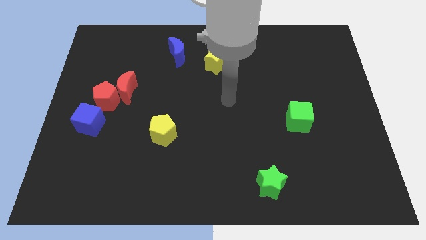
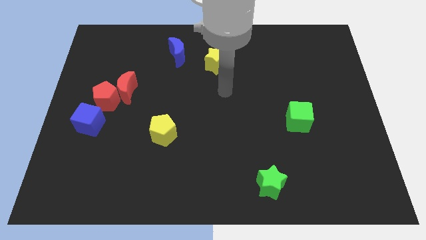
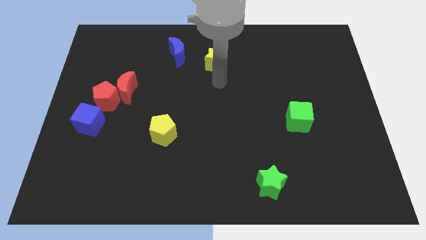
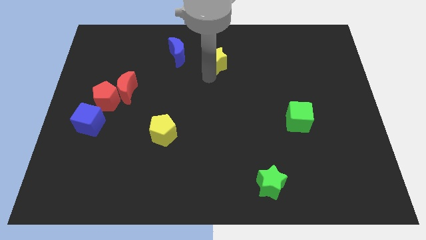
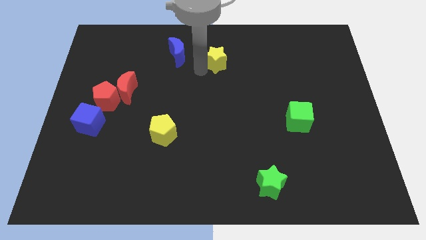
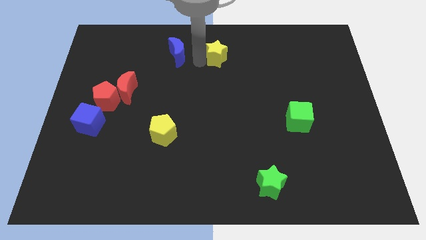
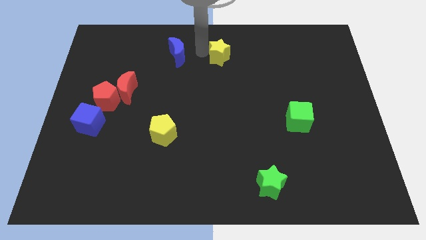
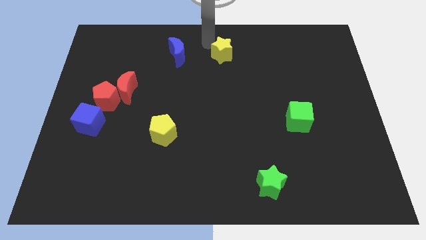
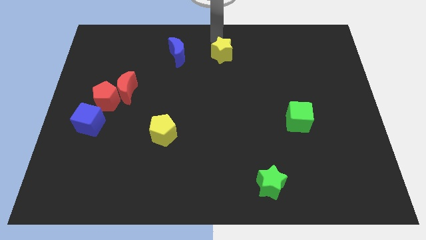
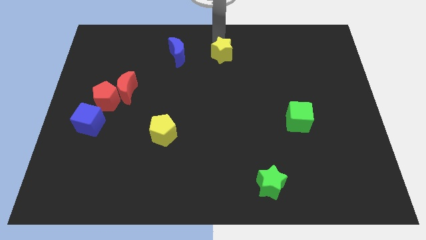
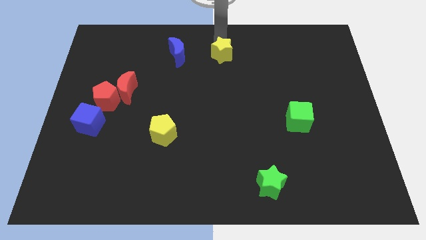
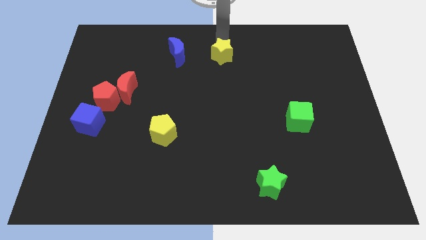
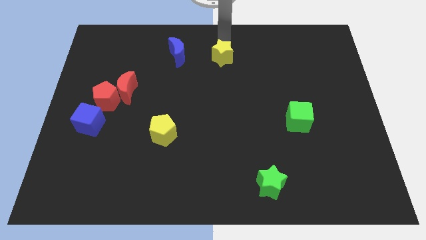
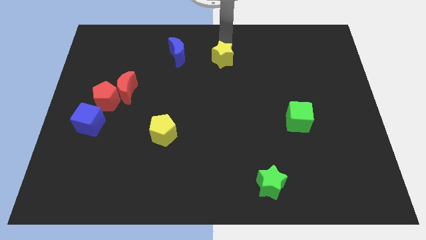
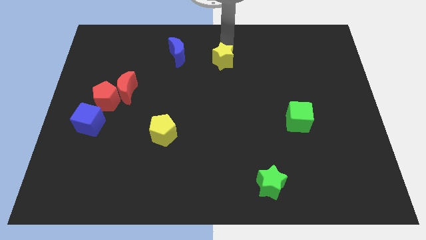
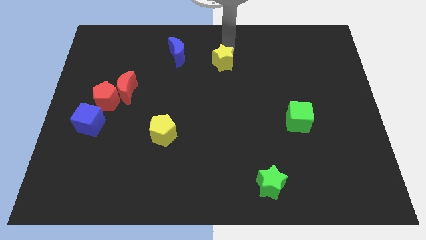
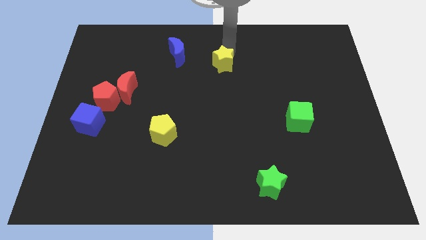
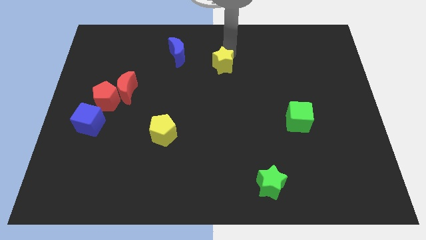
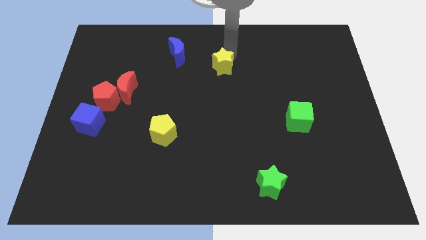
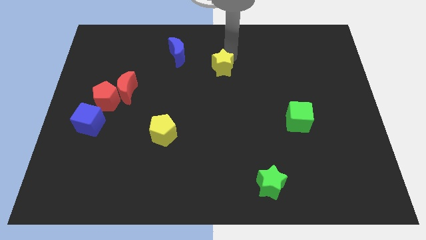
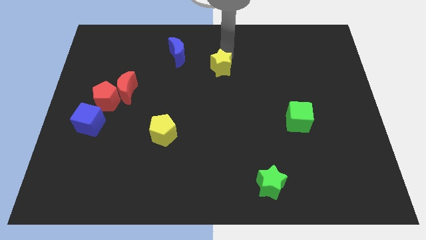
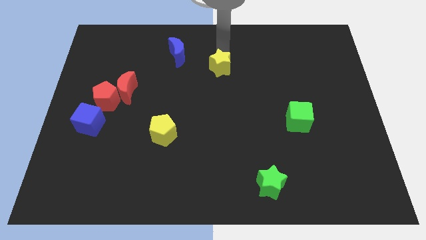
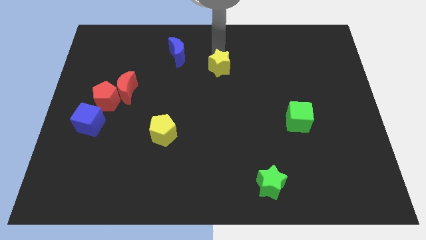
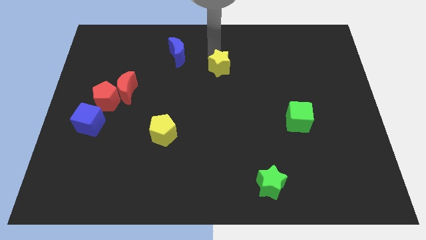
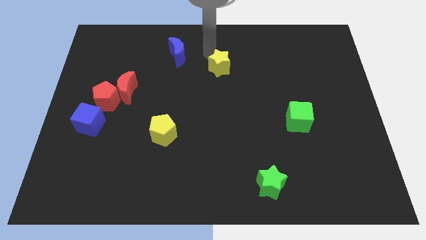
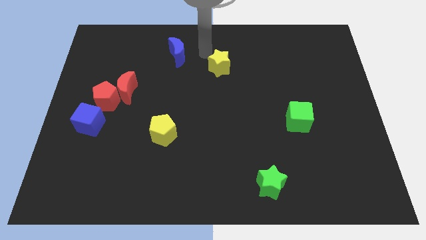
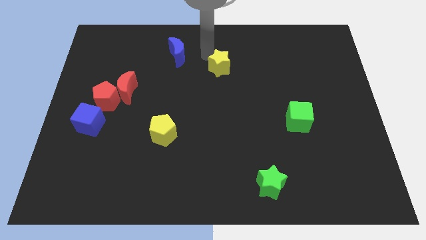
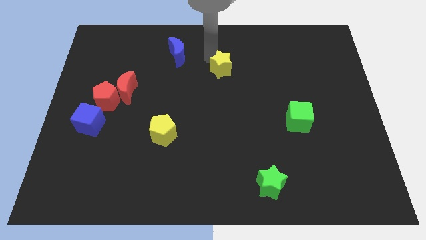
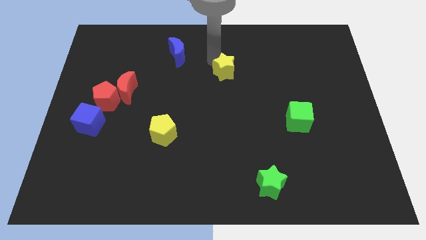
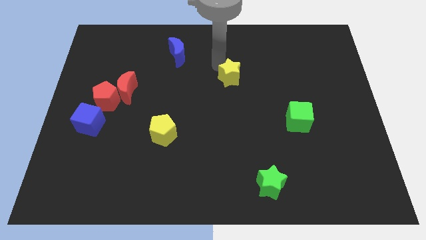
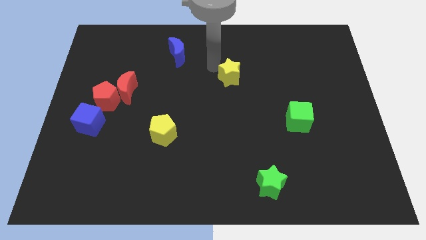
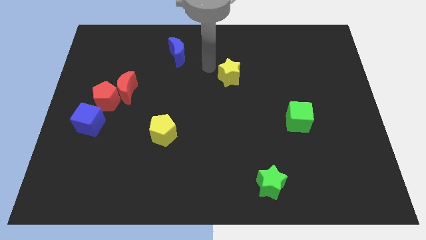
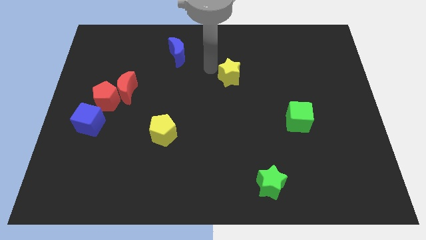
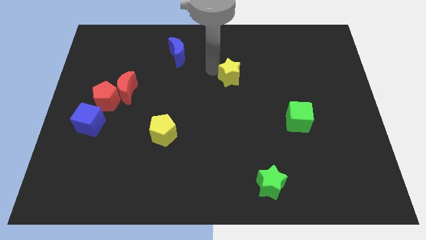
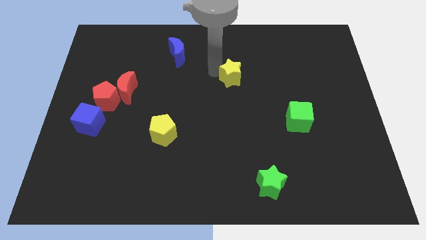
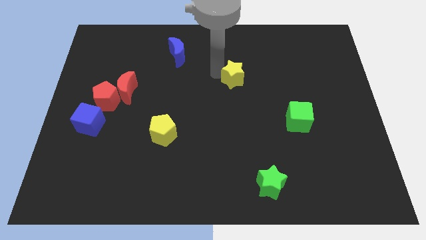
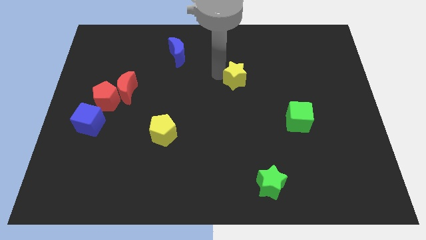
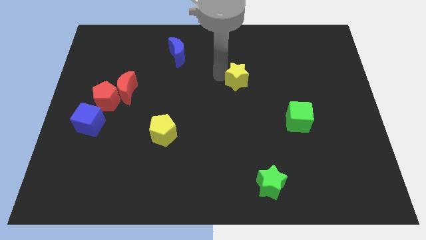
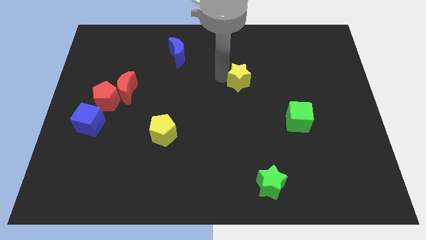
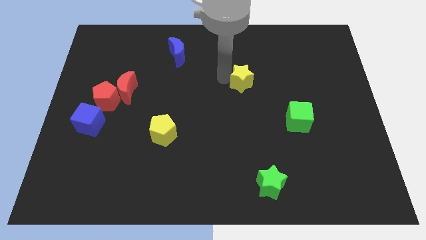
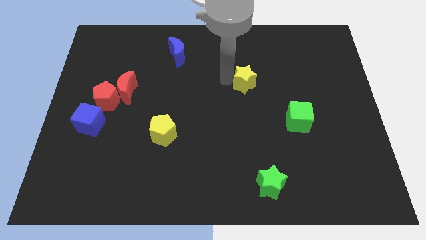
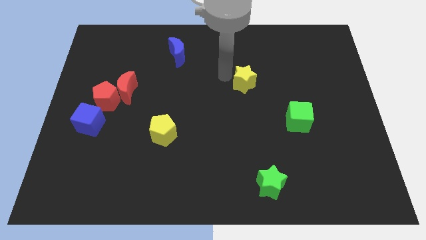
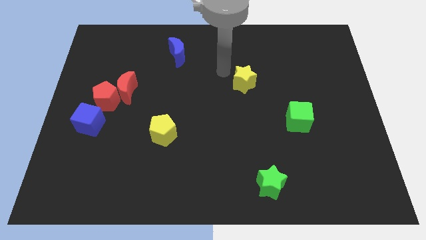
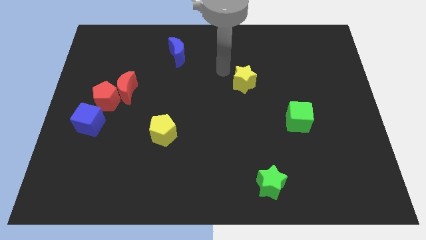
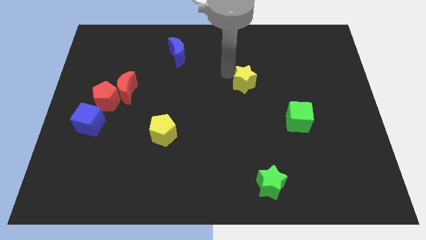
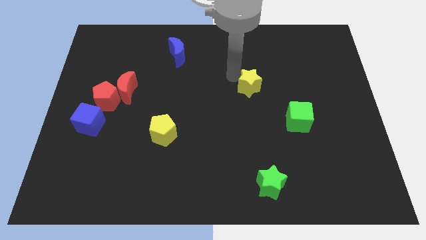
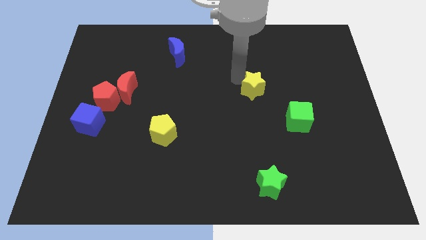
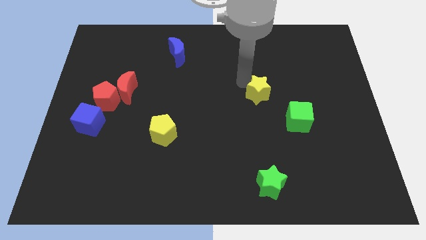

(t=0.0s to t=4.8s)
slide the yellow star to the top left side of the green cube

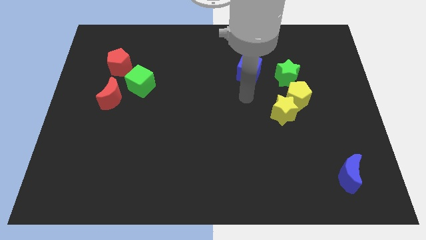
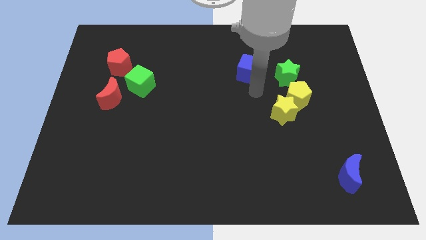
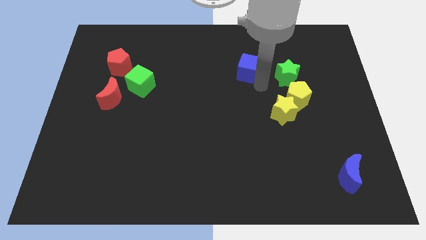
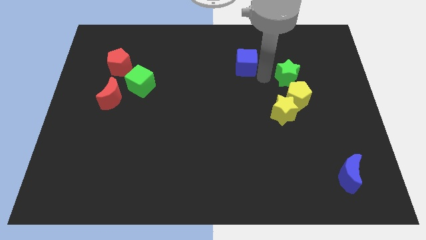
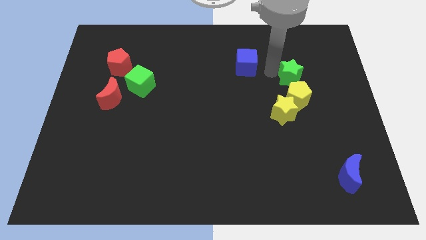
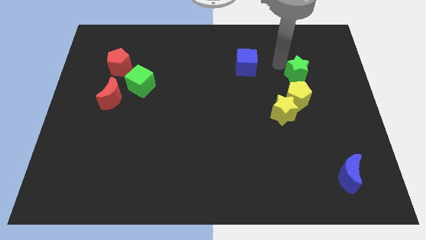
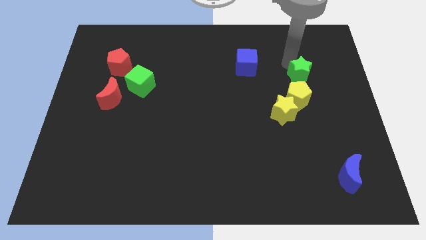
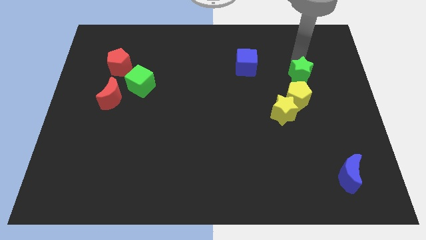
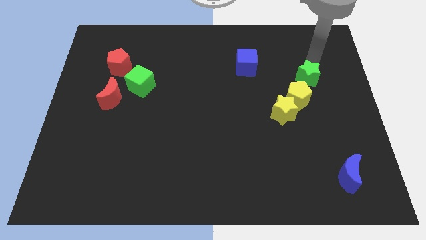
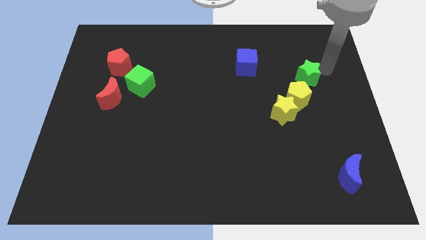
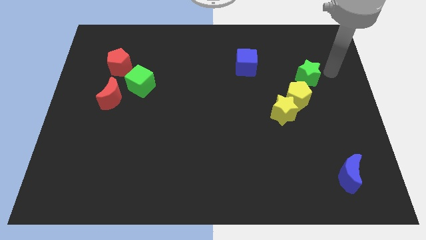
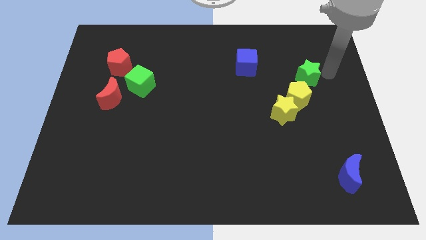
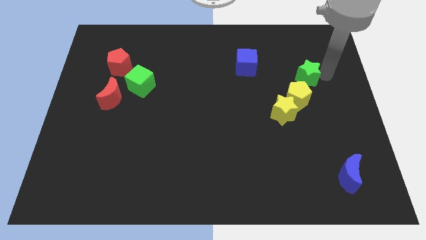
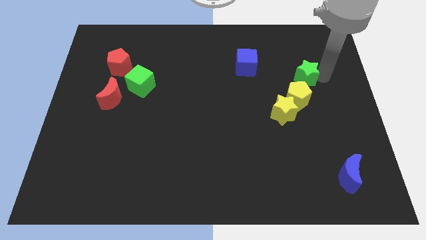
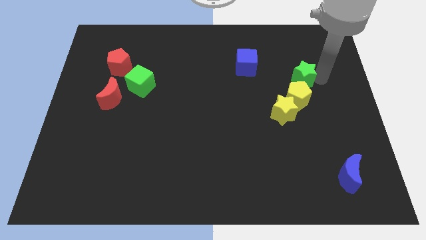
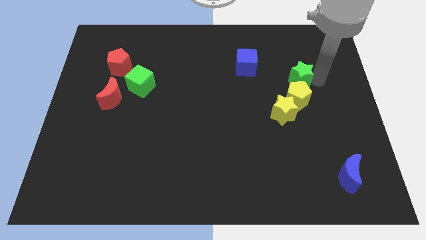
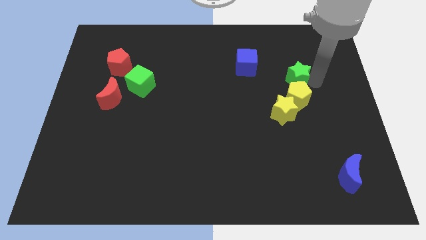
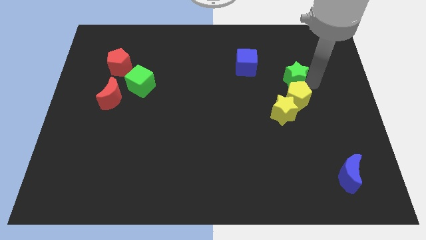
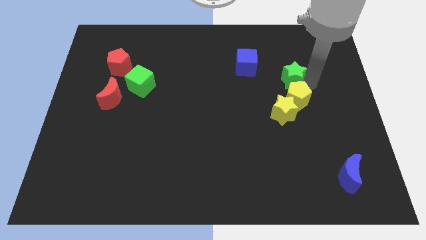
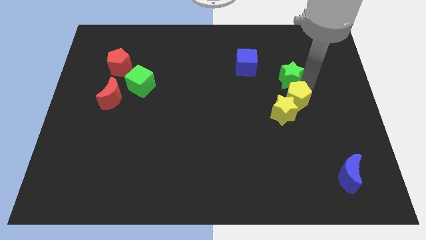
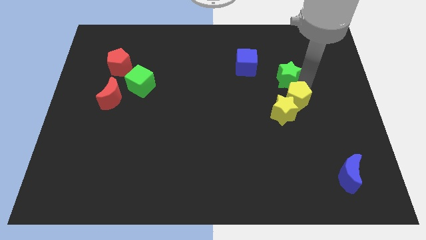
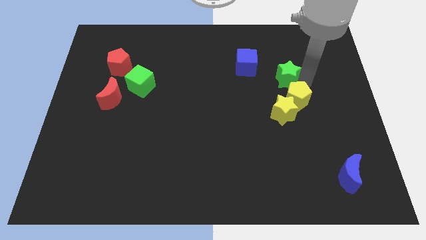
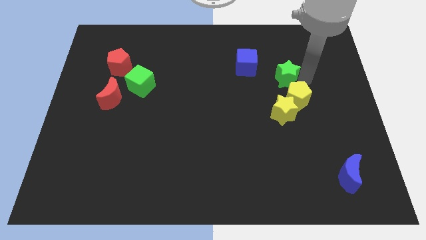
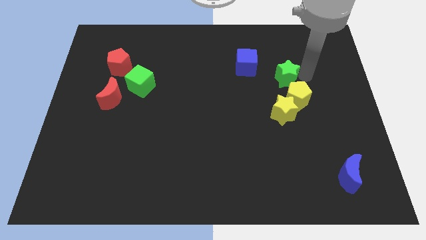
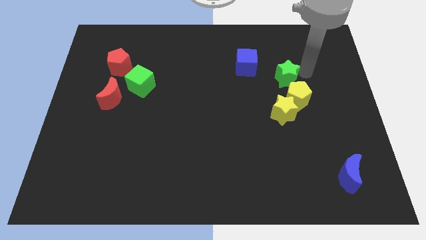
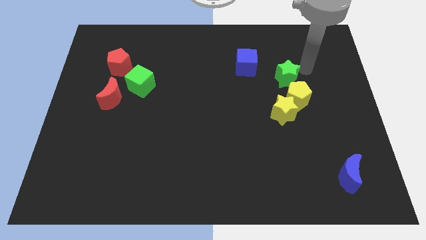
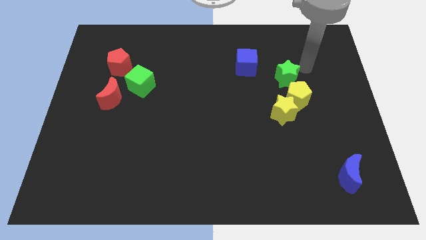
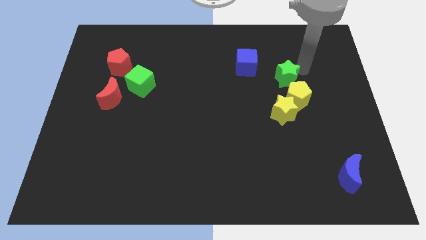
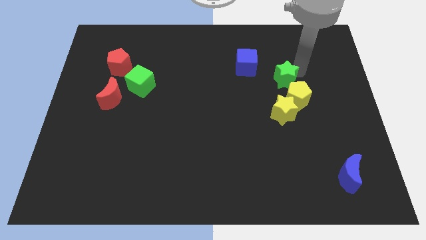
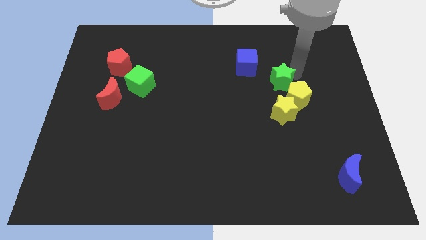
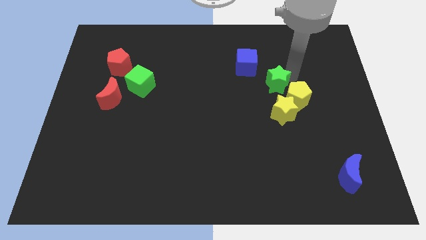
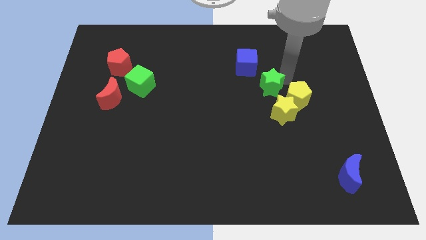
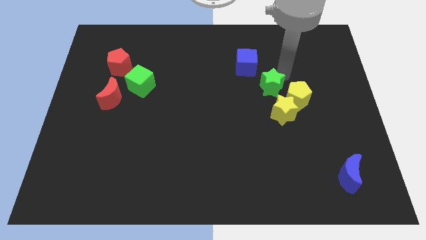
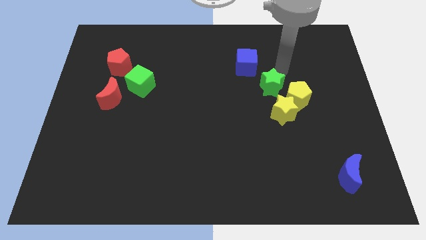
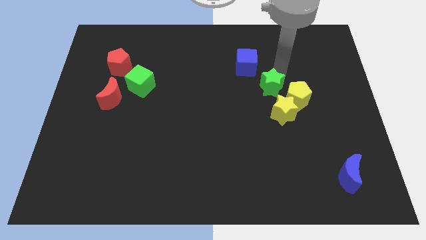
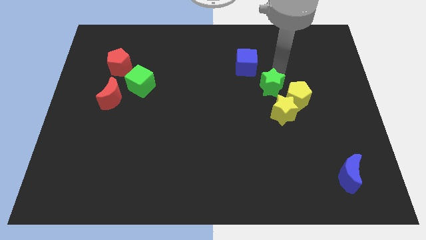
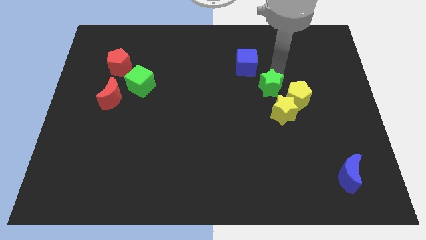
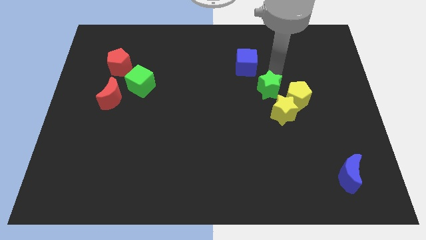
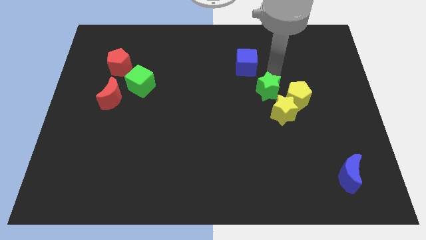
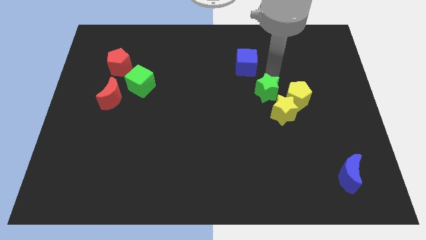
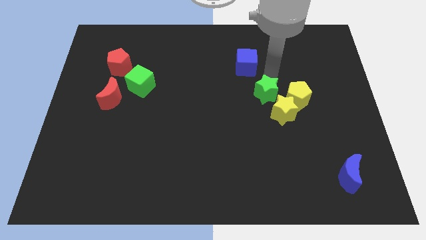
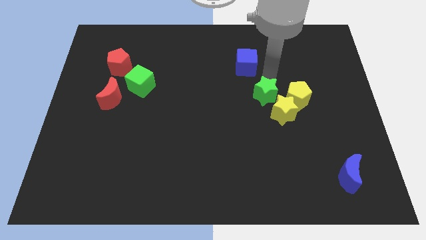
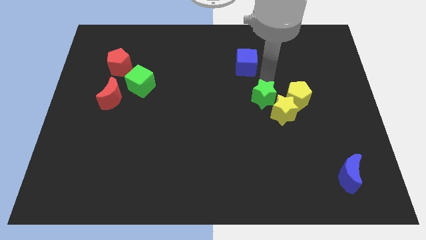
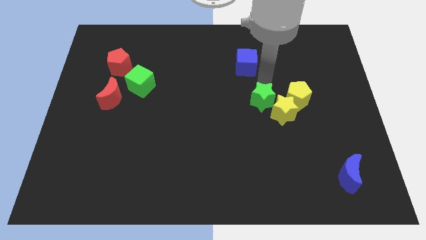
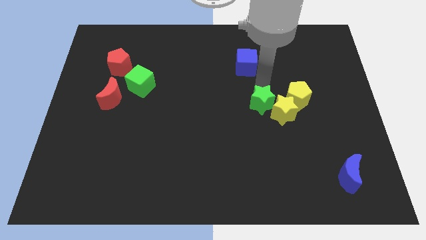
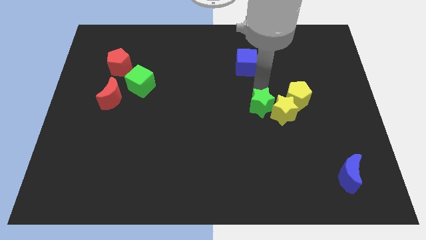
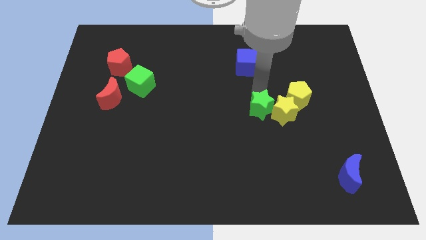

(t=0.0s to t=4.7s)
put the green star to the bottom left side of the yellow star
